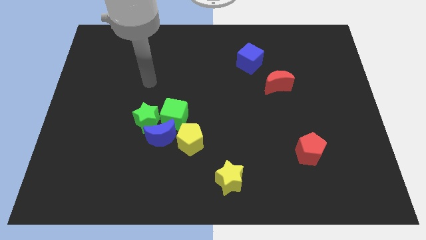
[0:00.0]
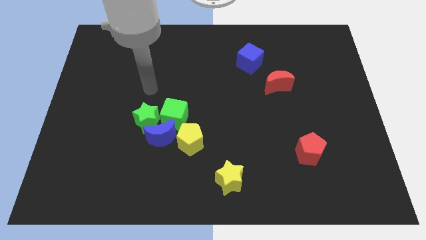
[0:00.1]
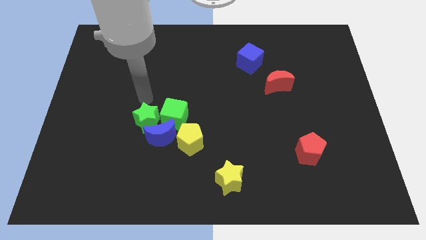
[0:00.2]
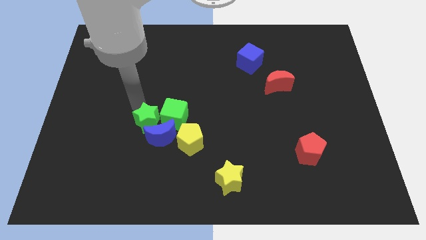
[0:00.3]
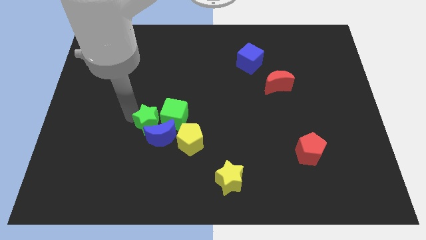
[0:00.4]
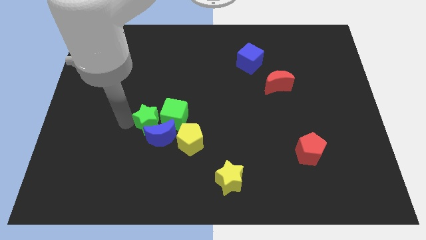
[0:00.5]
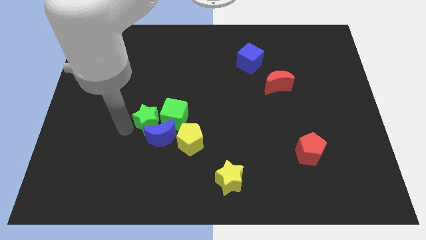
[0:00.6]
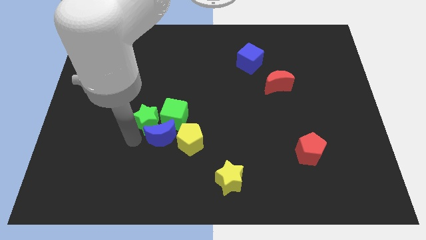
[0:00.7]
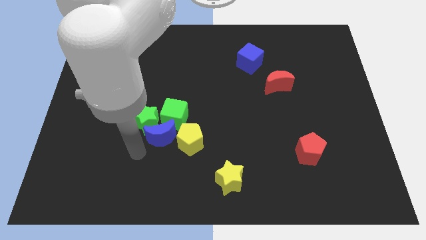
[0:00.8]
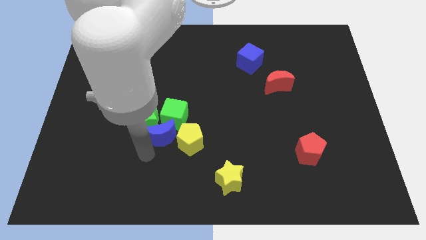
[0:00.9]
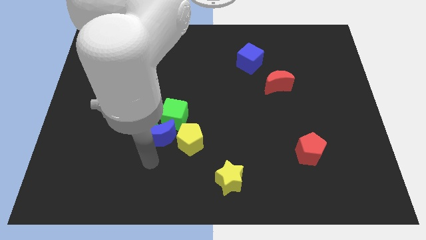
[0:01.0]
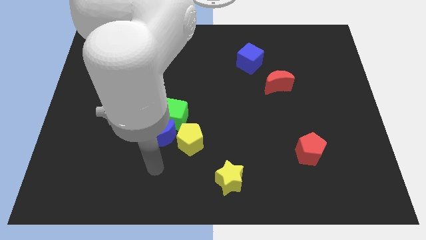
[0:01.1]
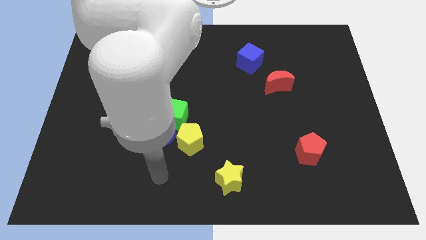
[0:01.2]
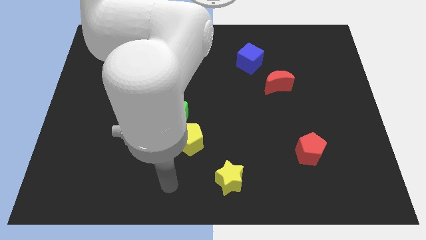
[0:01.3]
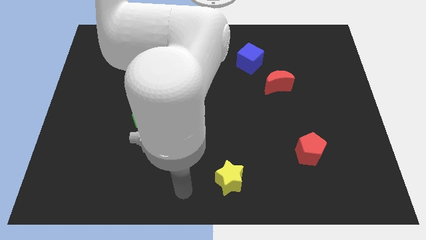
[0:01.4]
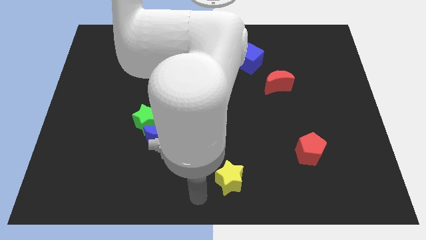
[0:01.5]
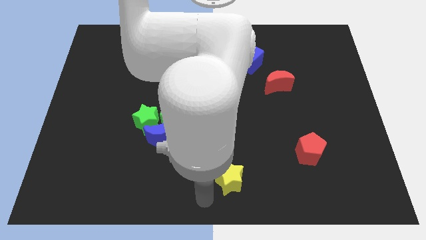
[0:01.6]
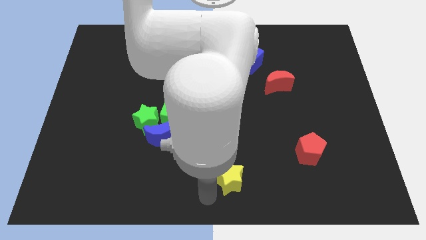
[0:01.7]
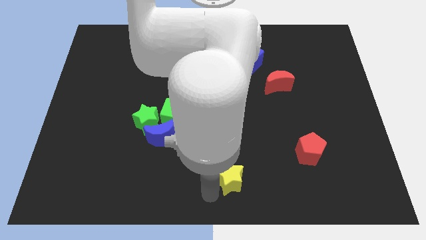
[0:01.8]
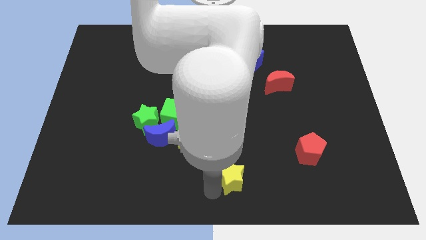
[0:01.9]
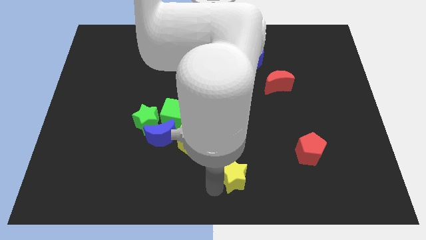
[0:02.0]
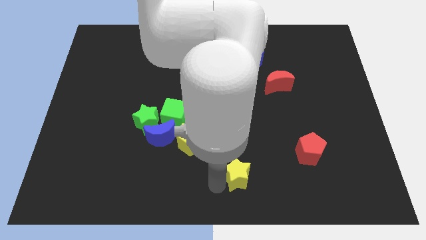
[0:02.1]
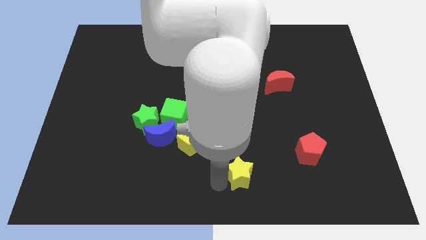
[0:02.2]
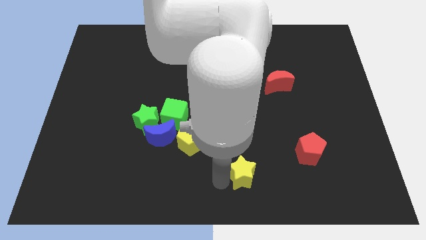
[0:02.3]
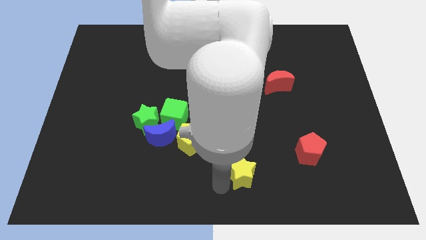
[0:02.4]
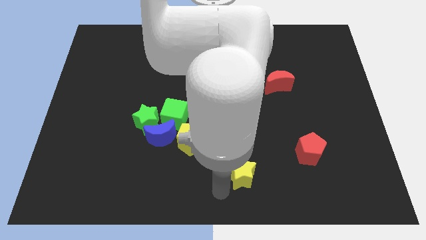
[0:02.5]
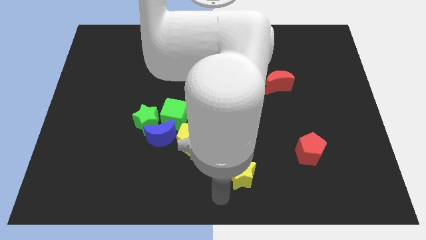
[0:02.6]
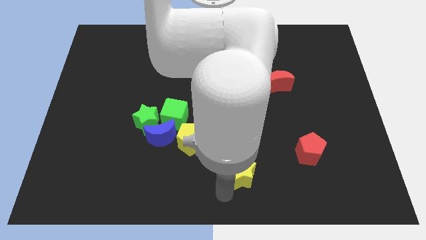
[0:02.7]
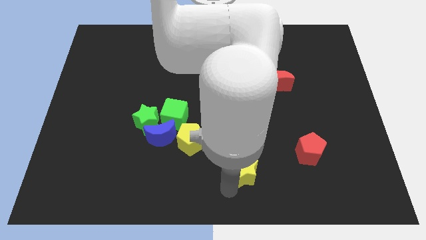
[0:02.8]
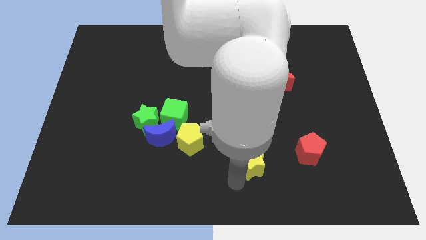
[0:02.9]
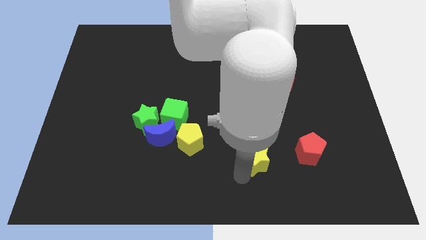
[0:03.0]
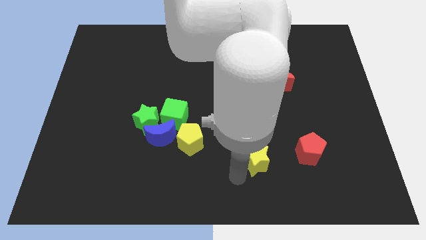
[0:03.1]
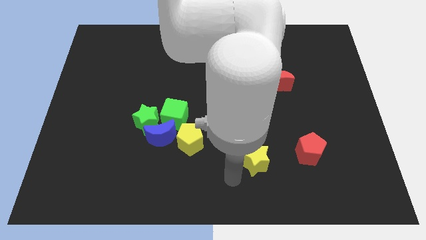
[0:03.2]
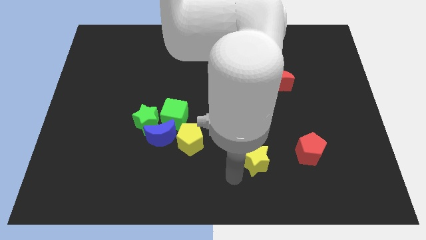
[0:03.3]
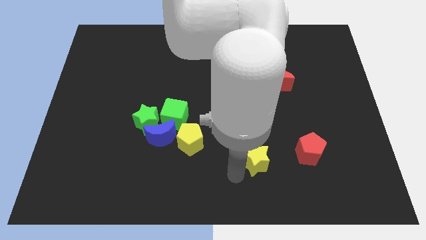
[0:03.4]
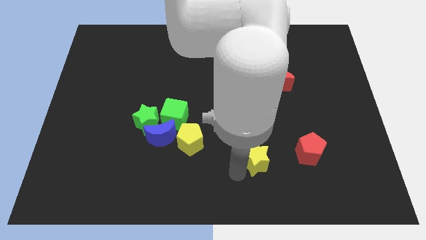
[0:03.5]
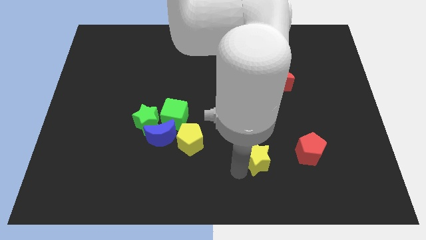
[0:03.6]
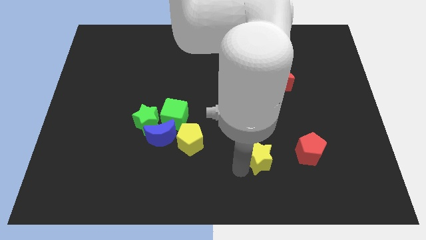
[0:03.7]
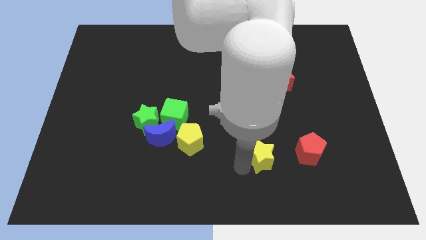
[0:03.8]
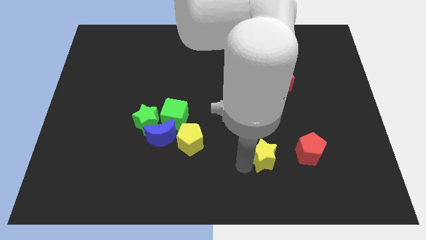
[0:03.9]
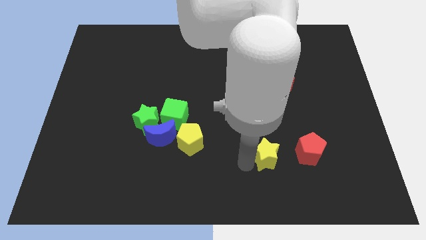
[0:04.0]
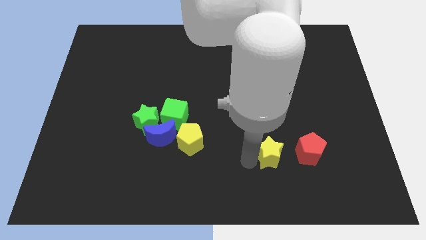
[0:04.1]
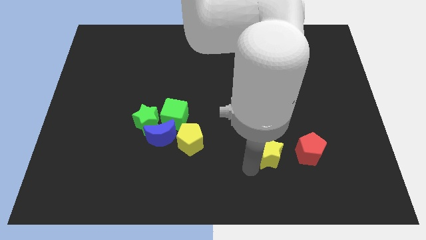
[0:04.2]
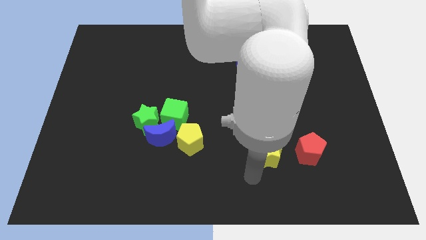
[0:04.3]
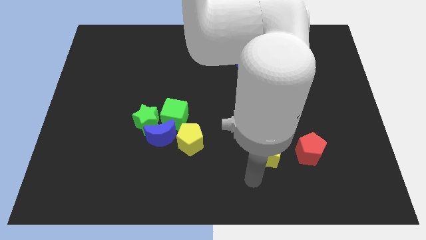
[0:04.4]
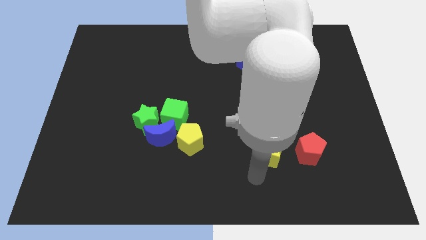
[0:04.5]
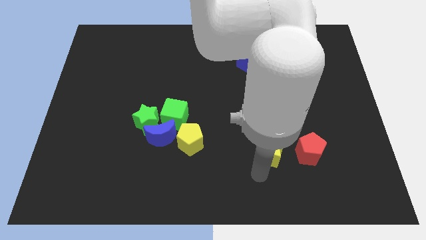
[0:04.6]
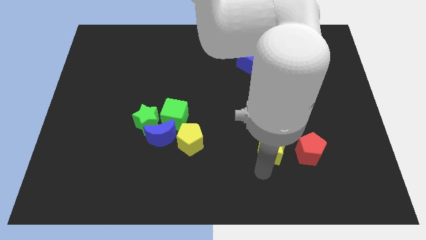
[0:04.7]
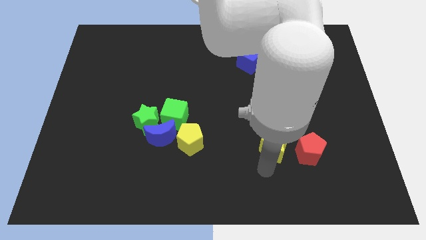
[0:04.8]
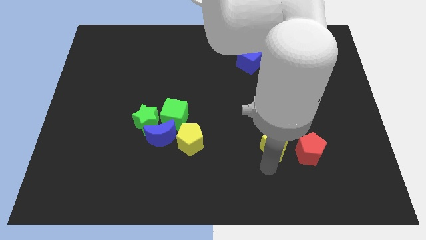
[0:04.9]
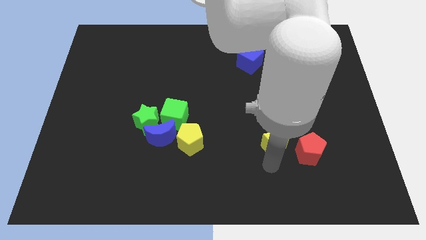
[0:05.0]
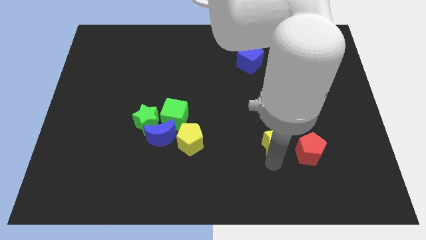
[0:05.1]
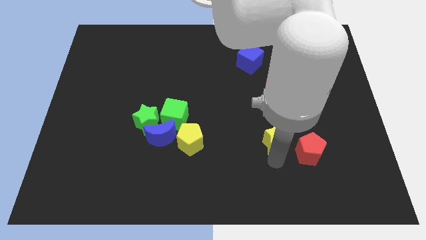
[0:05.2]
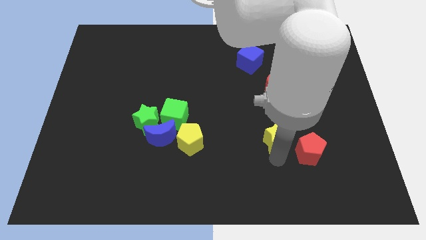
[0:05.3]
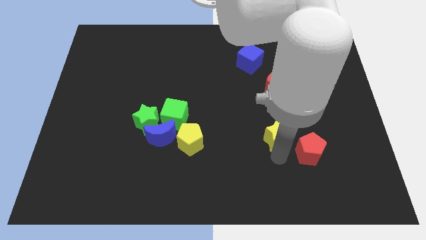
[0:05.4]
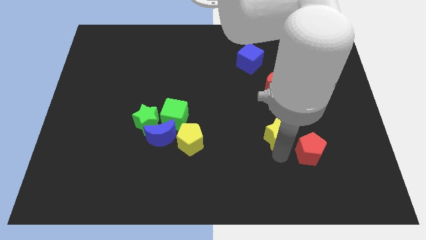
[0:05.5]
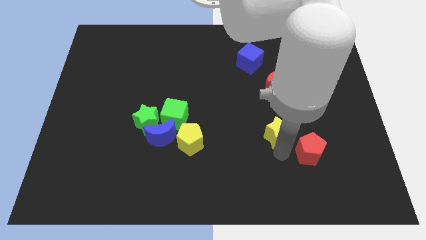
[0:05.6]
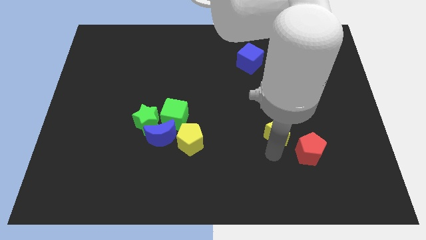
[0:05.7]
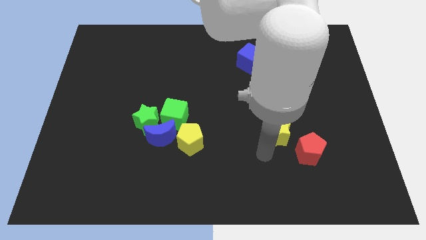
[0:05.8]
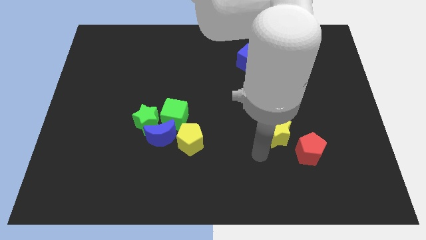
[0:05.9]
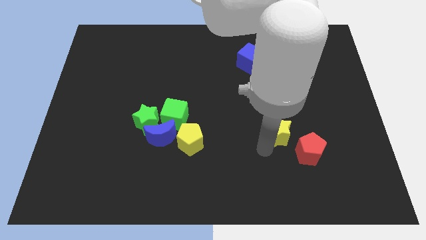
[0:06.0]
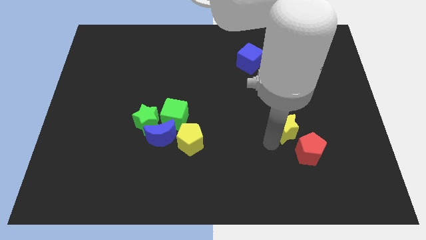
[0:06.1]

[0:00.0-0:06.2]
move the yellow star to the top side of the red pentagon
